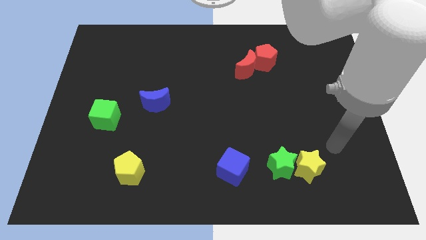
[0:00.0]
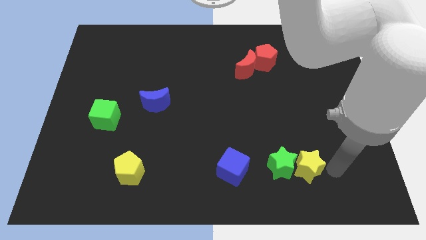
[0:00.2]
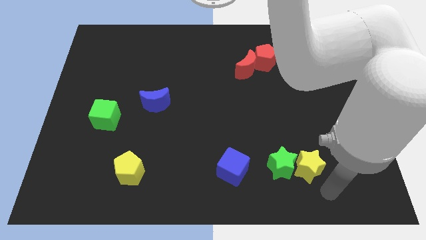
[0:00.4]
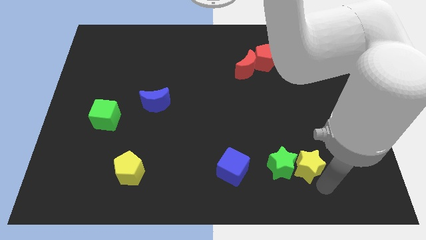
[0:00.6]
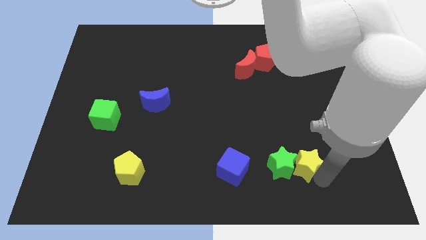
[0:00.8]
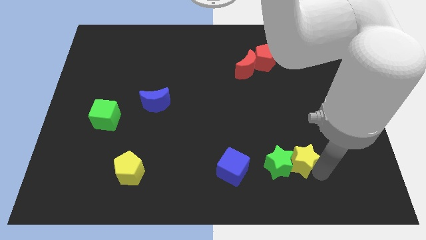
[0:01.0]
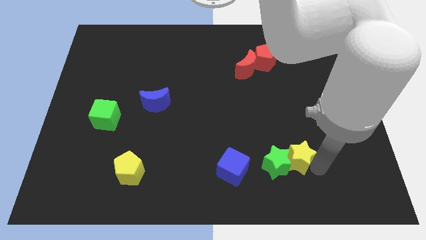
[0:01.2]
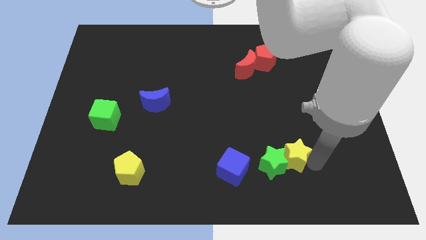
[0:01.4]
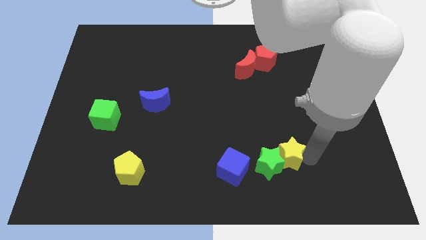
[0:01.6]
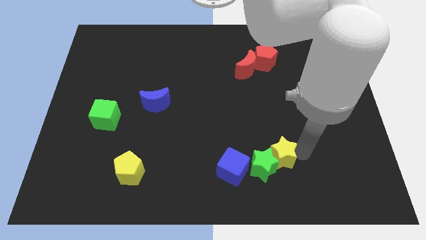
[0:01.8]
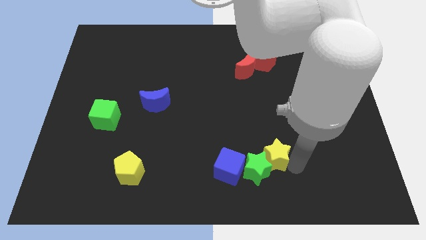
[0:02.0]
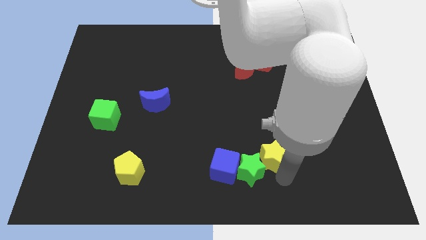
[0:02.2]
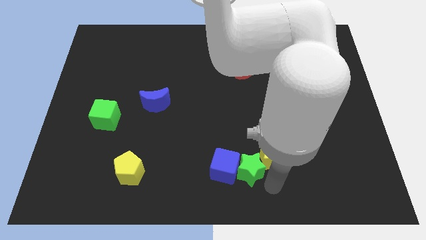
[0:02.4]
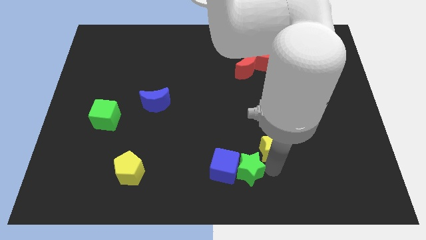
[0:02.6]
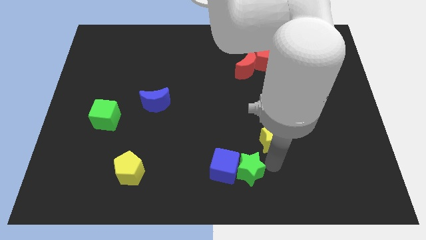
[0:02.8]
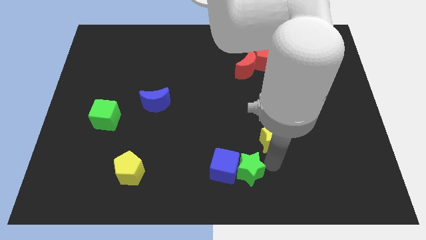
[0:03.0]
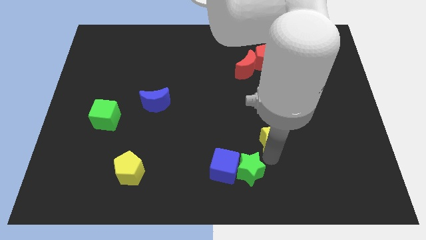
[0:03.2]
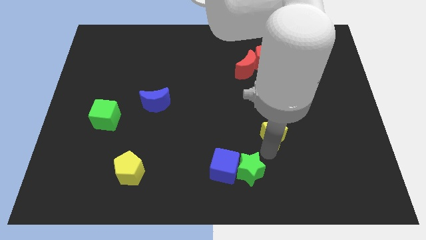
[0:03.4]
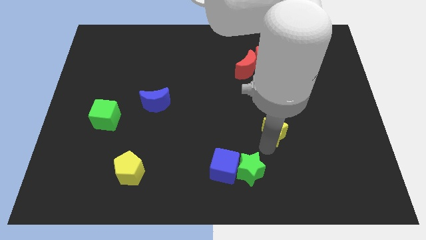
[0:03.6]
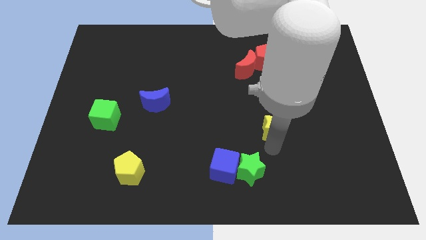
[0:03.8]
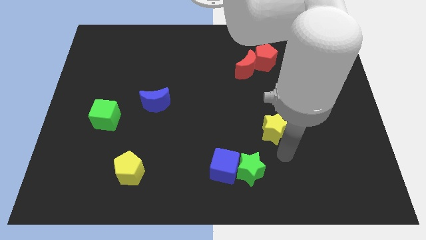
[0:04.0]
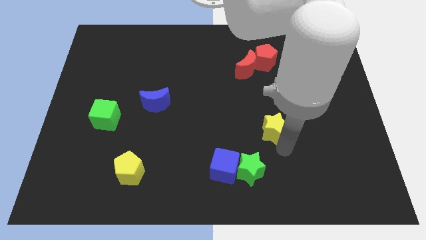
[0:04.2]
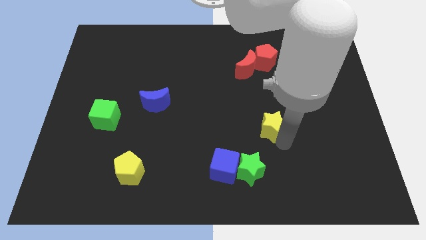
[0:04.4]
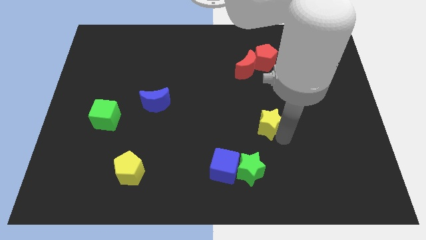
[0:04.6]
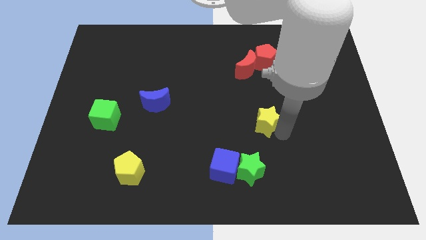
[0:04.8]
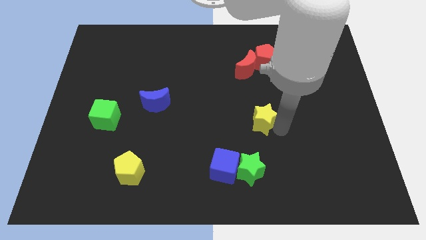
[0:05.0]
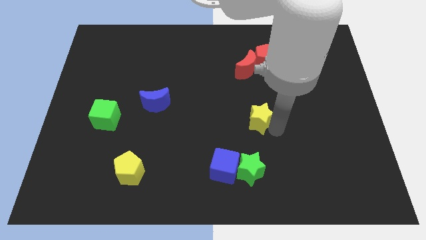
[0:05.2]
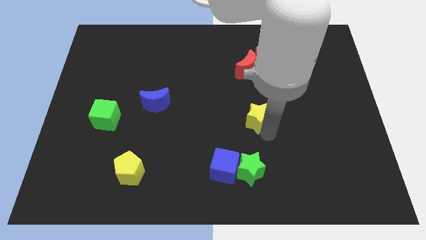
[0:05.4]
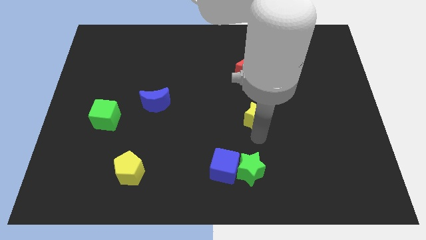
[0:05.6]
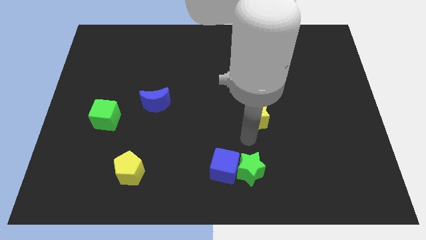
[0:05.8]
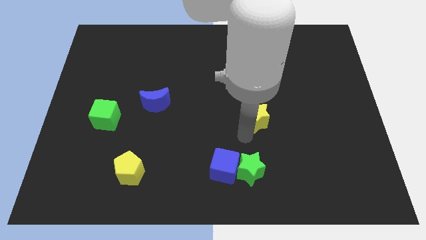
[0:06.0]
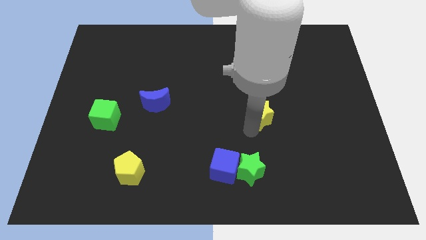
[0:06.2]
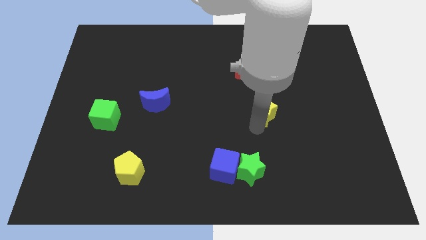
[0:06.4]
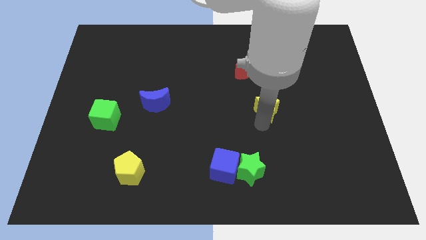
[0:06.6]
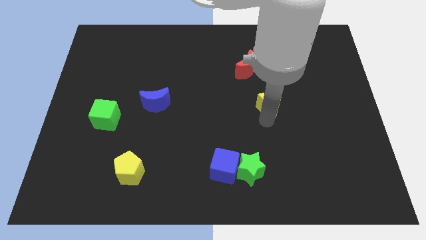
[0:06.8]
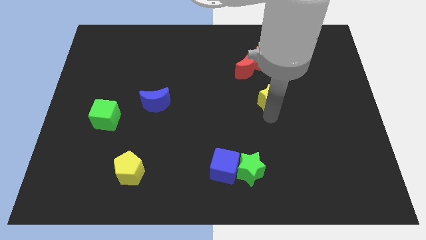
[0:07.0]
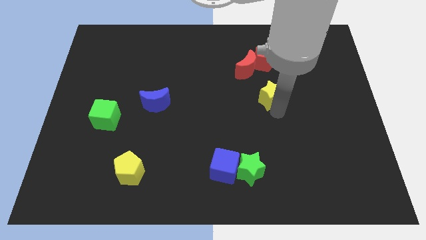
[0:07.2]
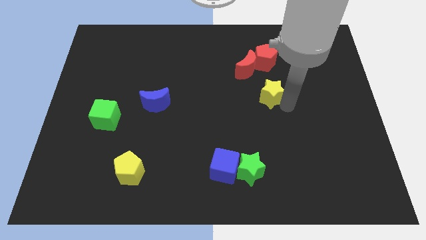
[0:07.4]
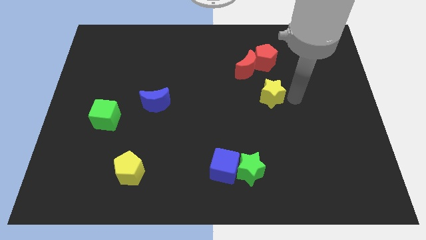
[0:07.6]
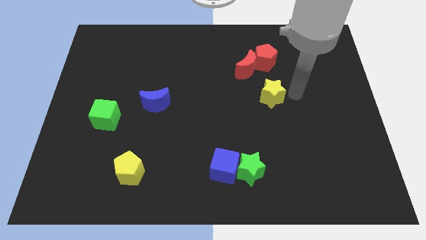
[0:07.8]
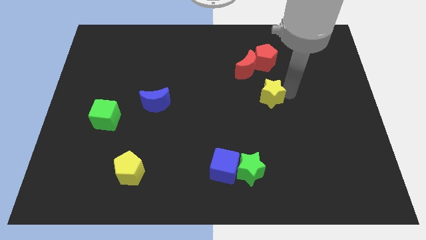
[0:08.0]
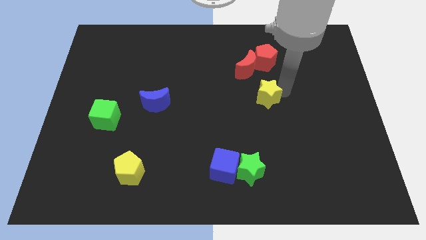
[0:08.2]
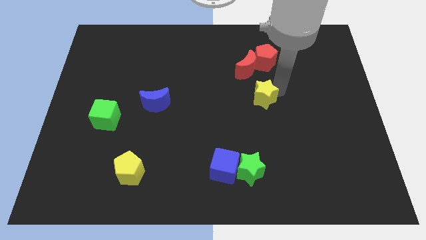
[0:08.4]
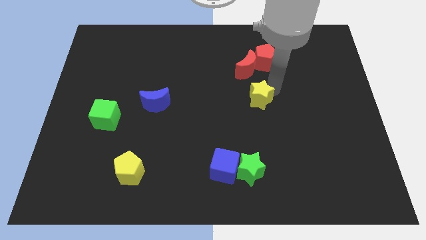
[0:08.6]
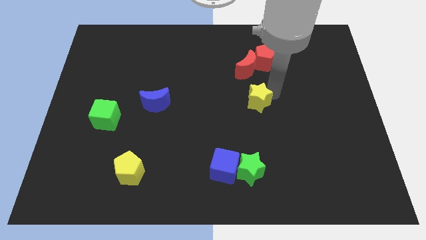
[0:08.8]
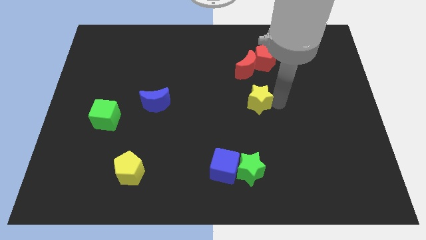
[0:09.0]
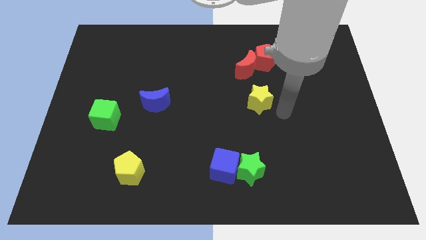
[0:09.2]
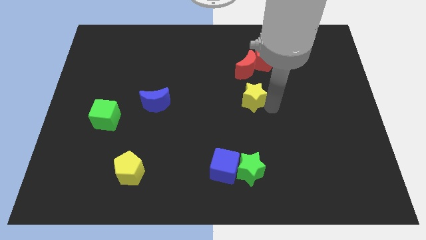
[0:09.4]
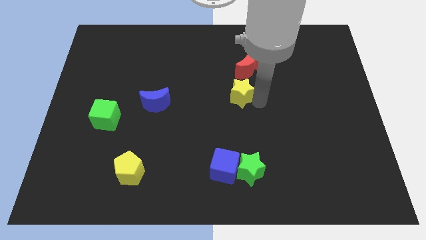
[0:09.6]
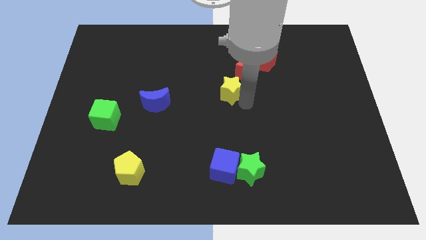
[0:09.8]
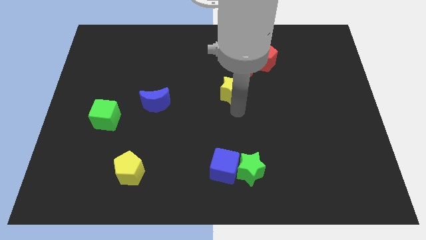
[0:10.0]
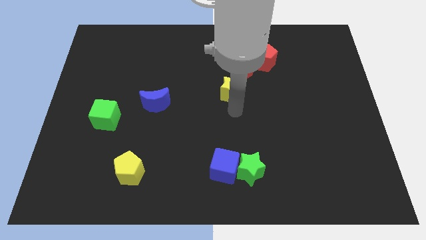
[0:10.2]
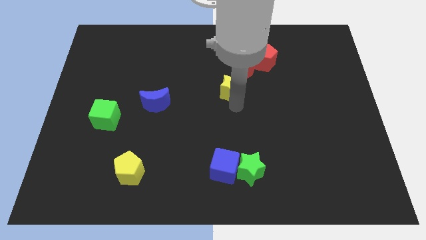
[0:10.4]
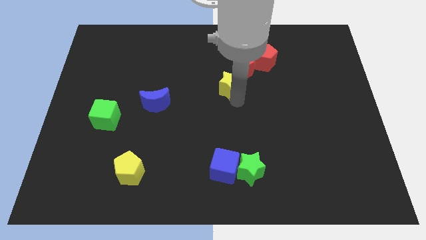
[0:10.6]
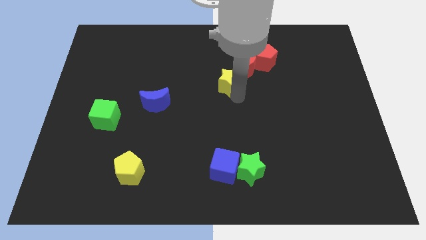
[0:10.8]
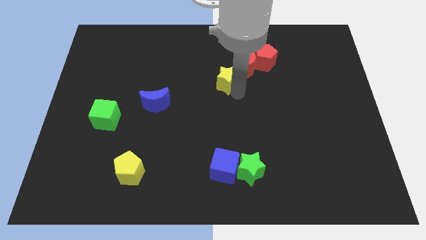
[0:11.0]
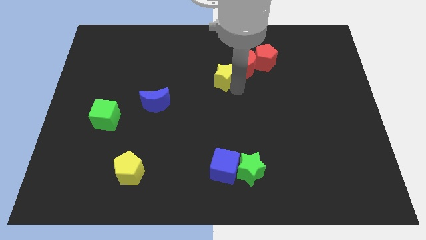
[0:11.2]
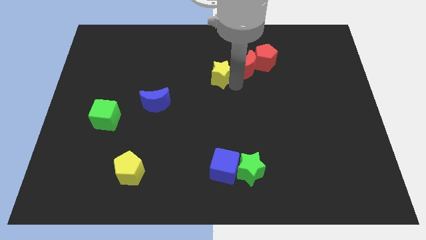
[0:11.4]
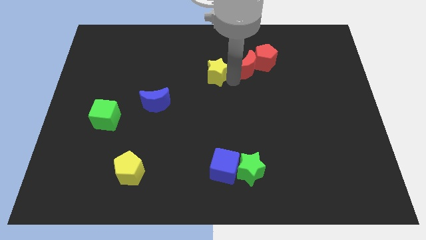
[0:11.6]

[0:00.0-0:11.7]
slide the yellow star to the left side of the red pentagon

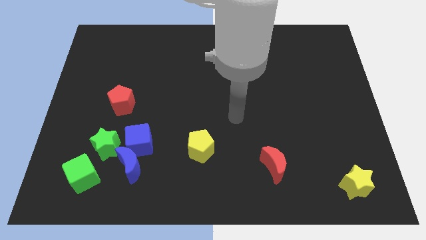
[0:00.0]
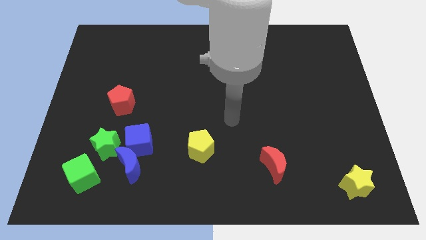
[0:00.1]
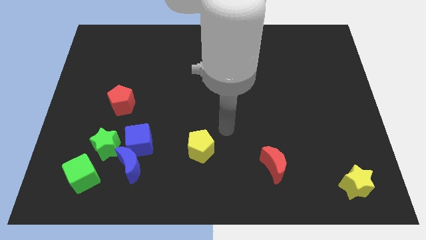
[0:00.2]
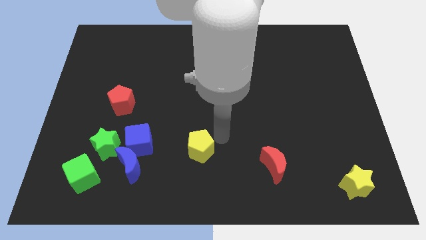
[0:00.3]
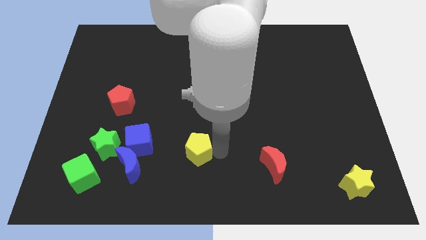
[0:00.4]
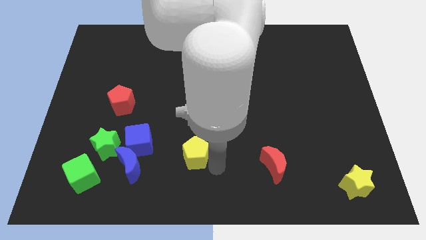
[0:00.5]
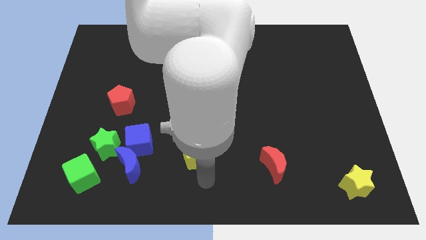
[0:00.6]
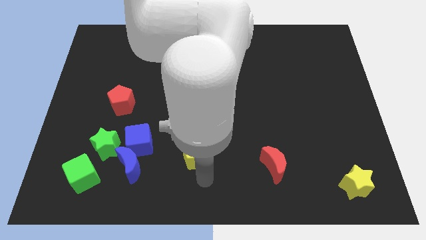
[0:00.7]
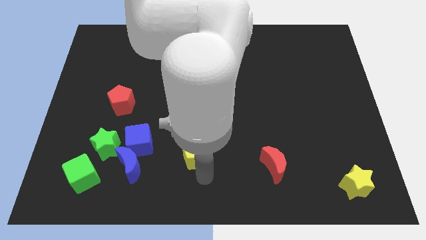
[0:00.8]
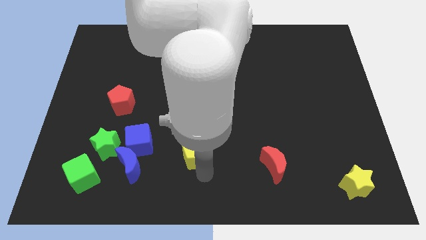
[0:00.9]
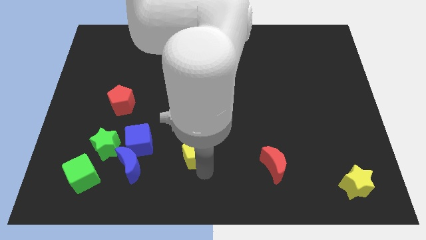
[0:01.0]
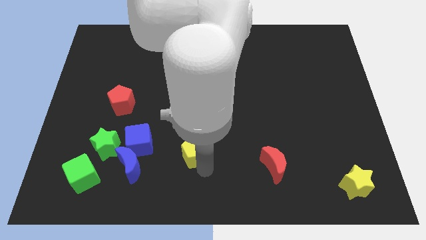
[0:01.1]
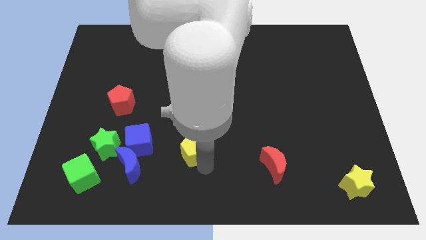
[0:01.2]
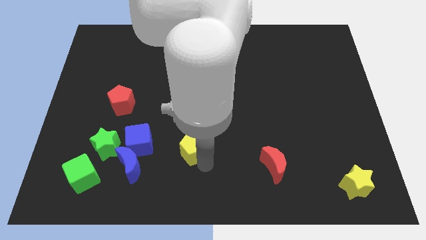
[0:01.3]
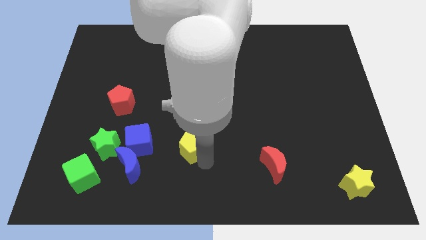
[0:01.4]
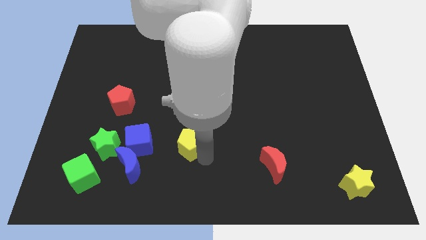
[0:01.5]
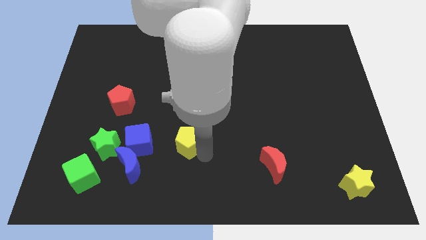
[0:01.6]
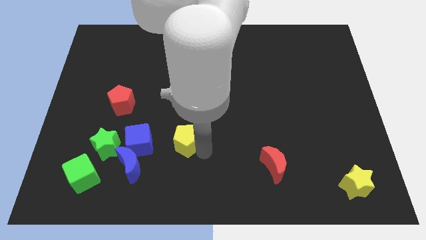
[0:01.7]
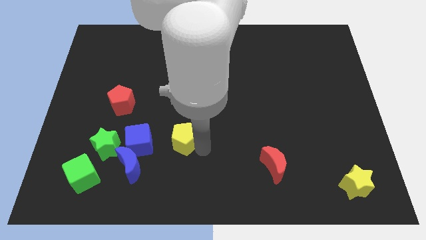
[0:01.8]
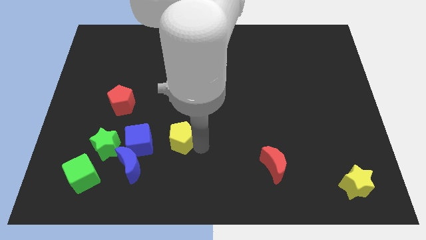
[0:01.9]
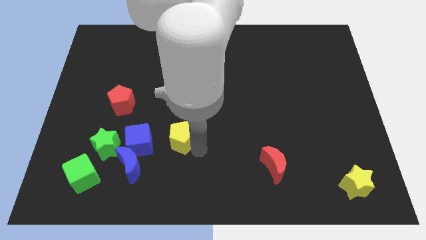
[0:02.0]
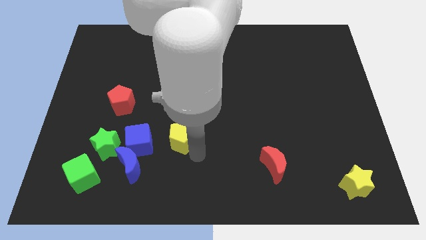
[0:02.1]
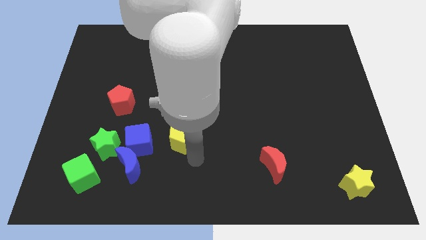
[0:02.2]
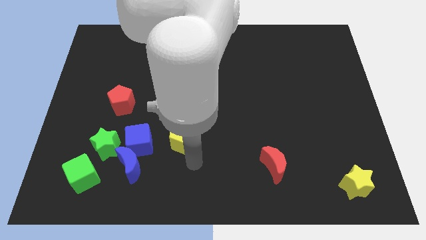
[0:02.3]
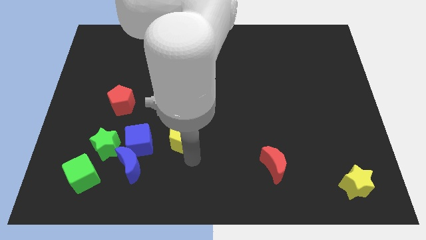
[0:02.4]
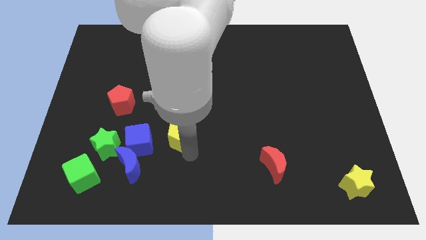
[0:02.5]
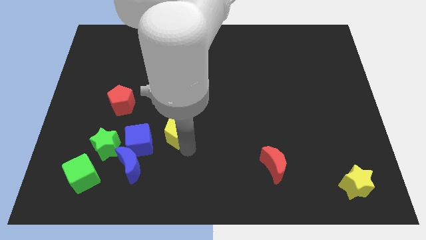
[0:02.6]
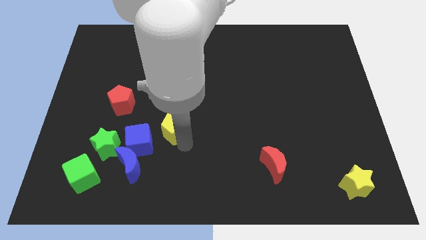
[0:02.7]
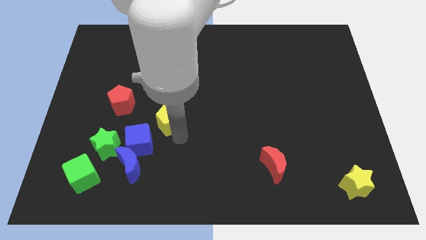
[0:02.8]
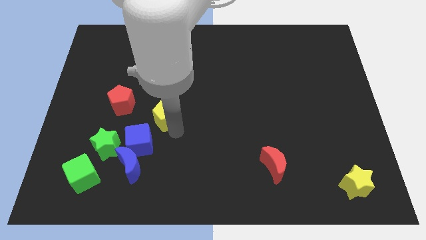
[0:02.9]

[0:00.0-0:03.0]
slide the yellow pentagon to the right side of the red pentagon
